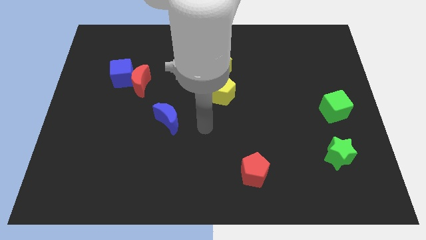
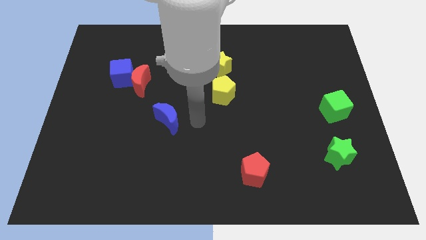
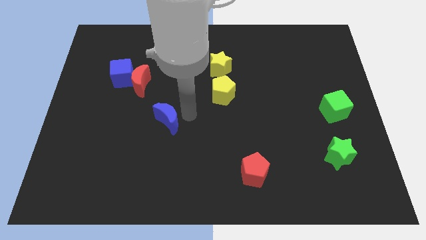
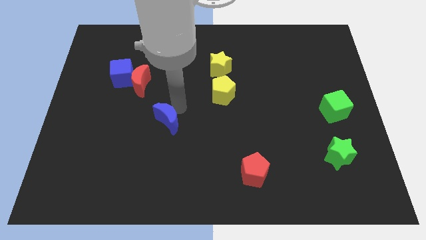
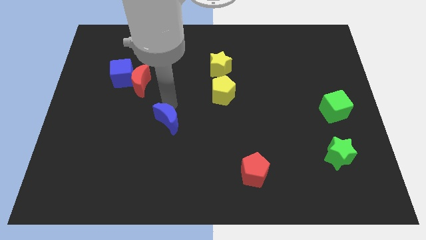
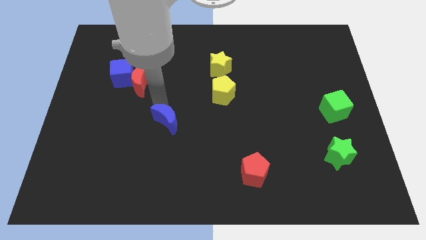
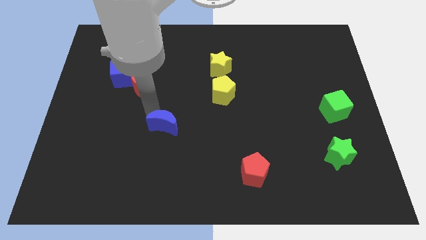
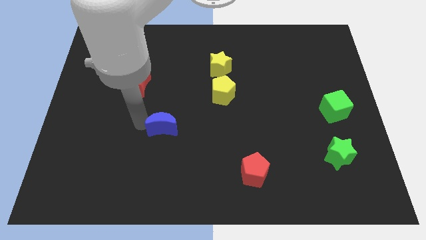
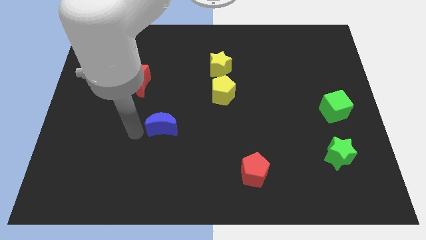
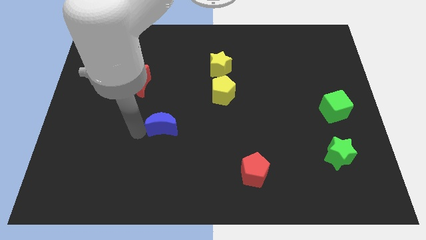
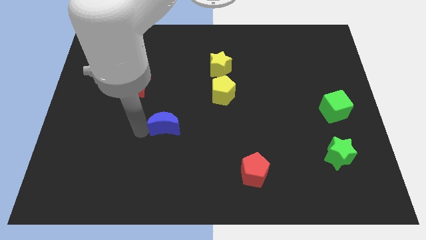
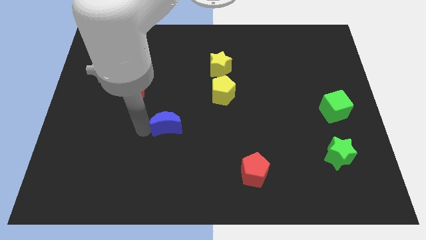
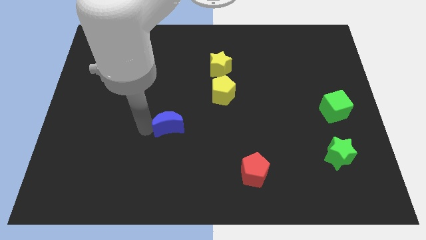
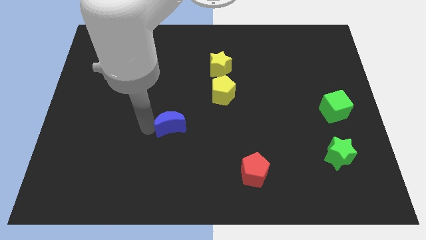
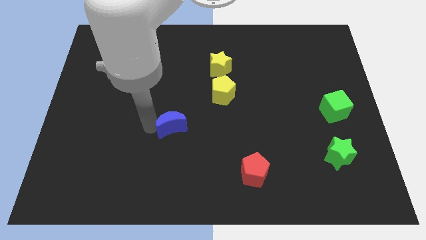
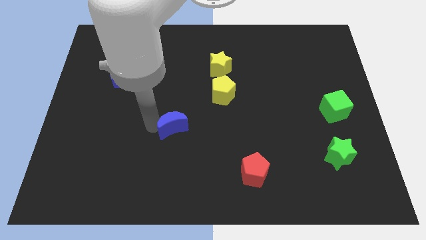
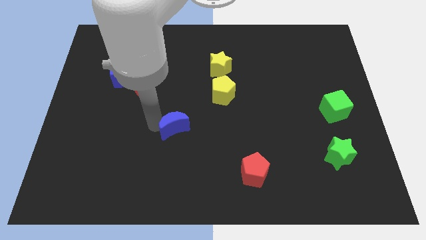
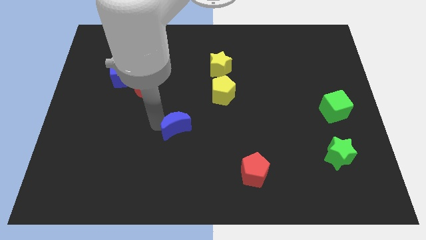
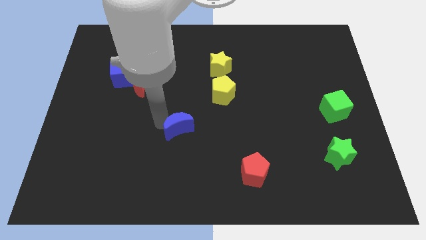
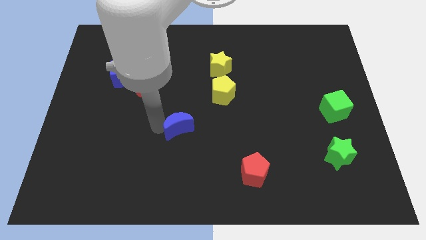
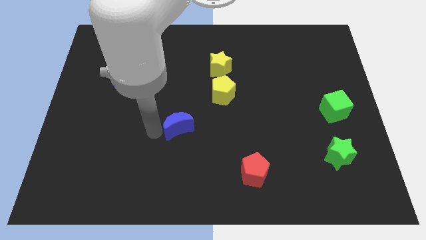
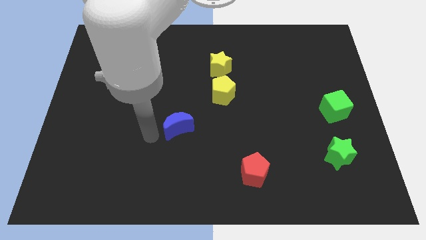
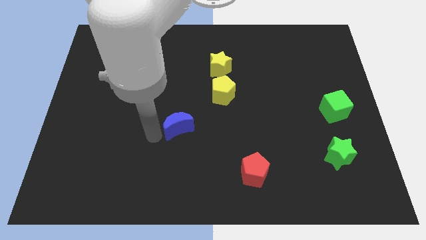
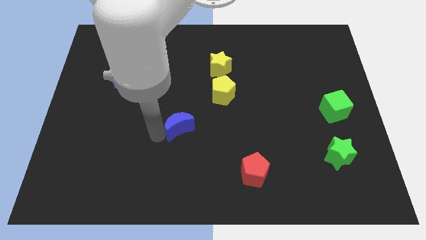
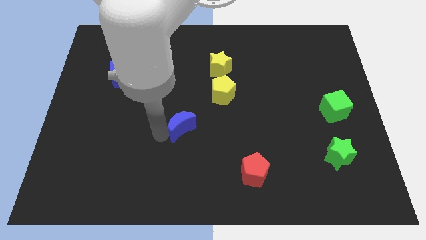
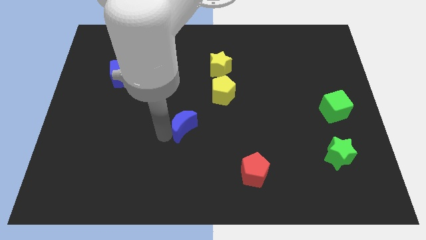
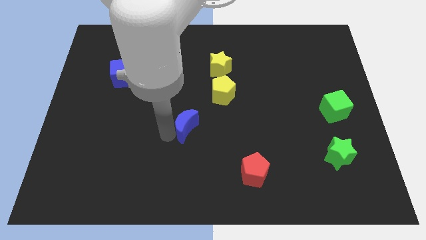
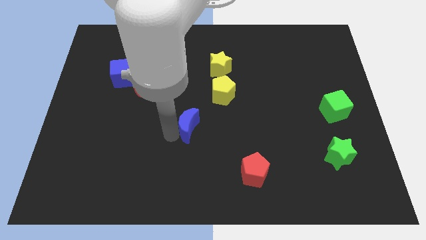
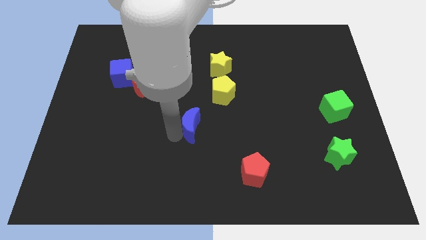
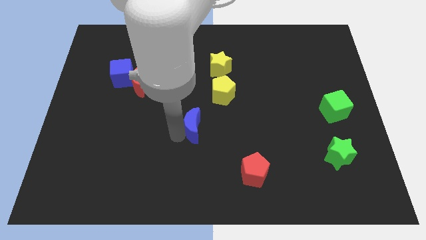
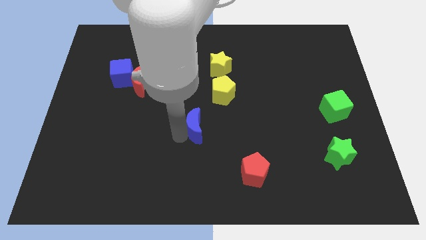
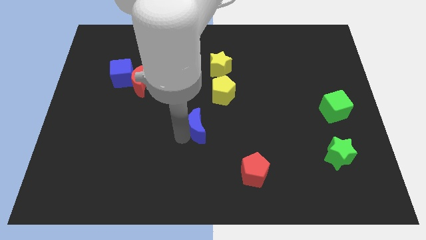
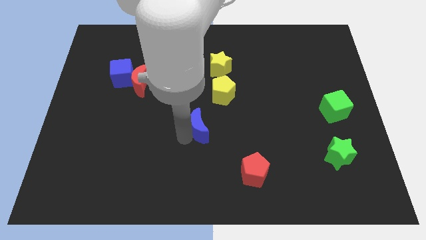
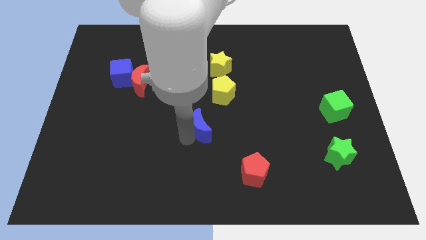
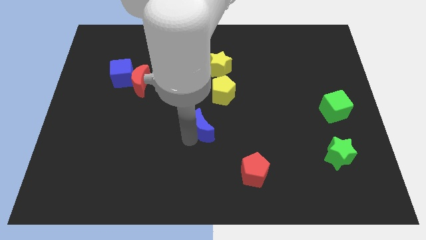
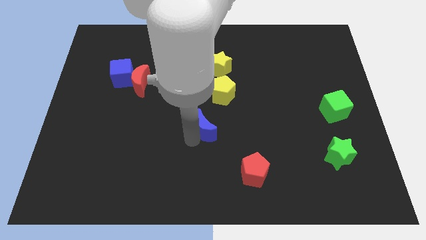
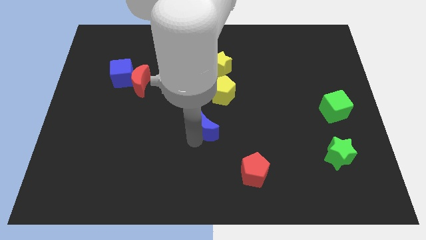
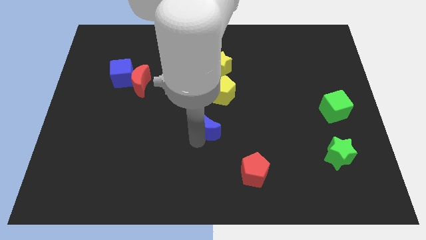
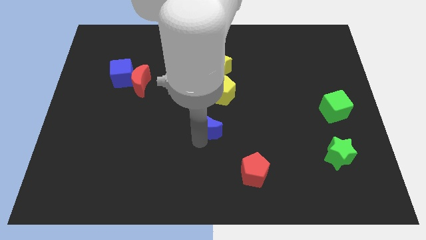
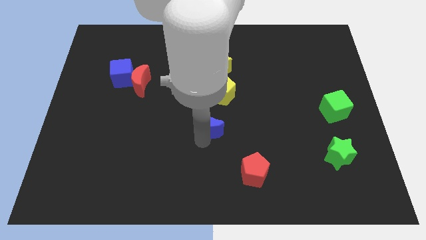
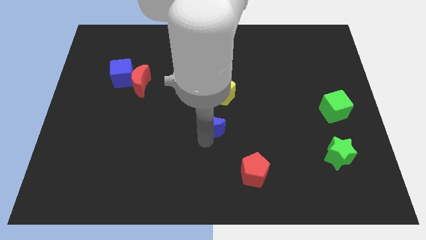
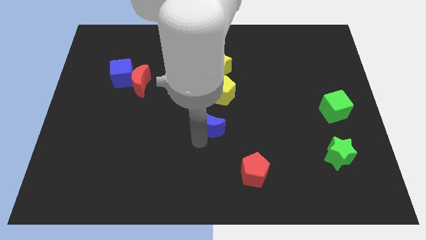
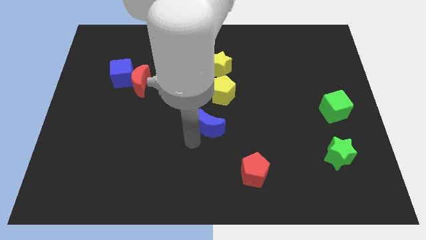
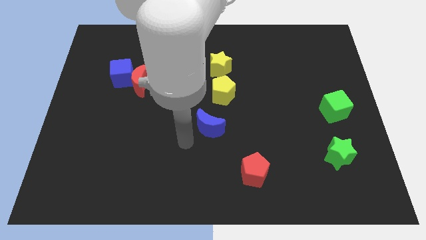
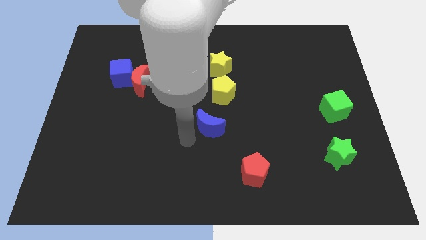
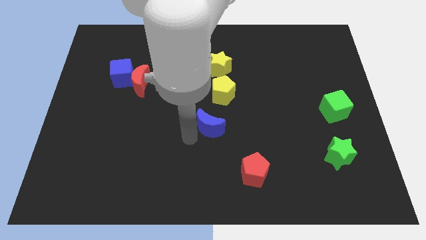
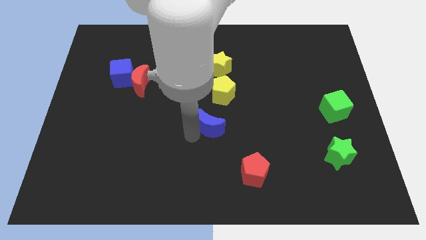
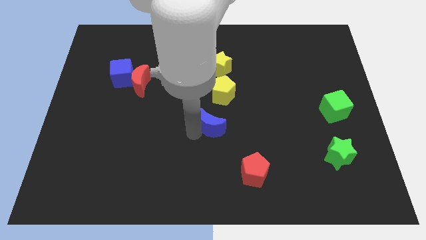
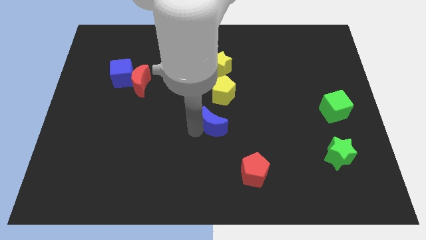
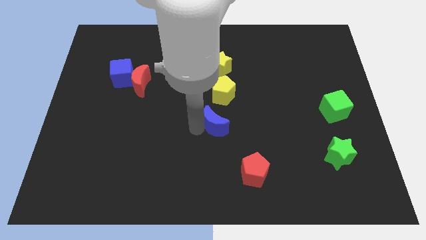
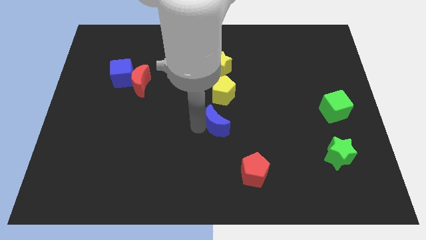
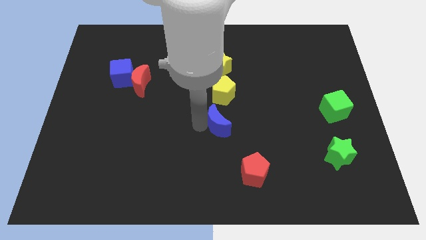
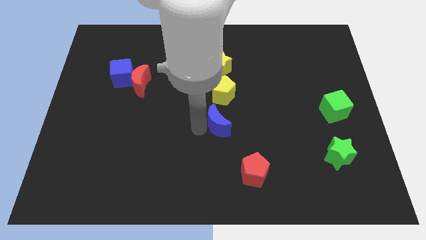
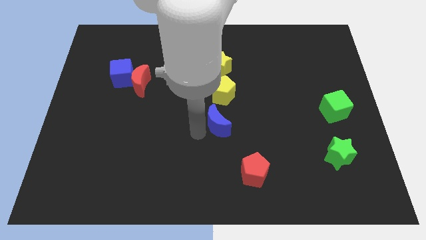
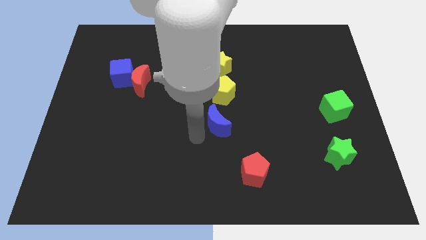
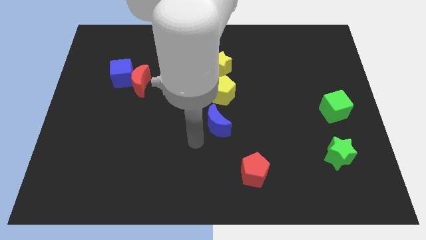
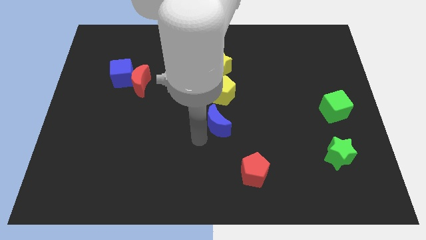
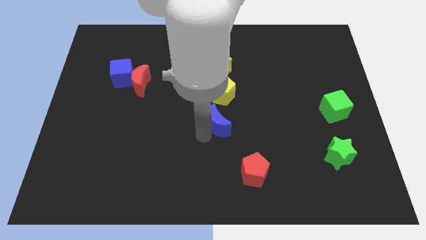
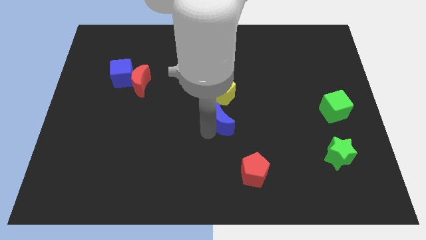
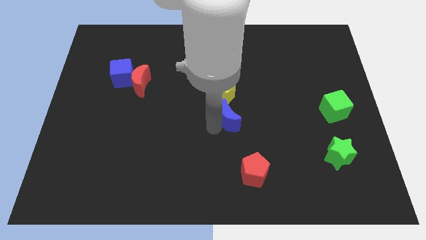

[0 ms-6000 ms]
slide the blue moon diagonally down and to the right of the yellow pentagon

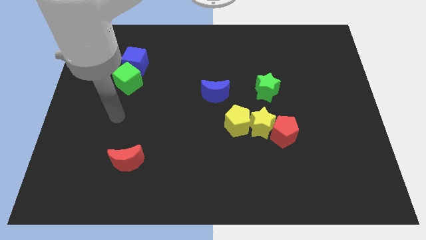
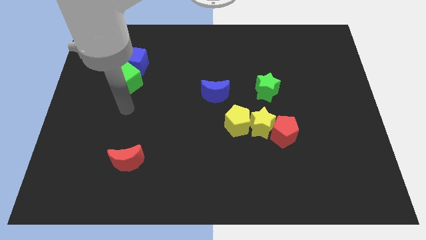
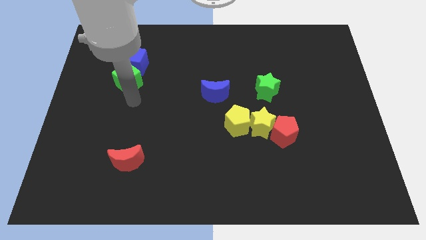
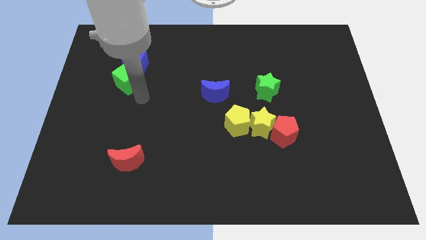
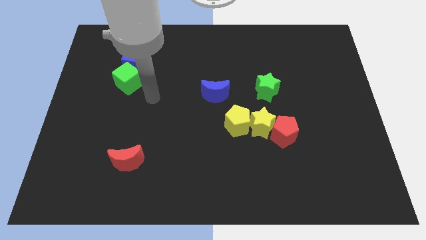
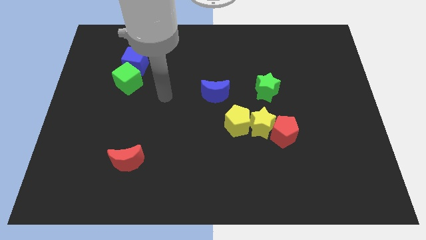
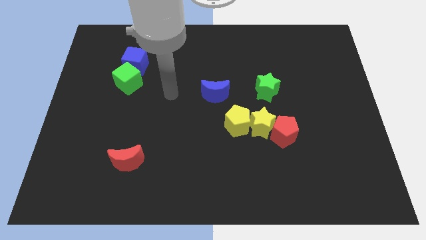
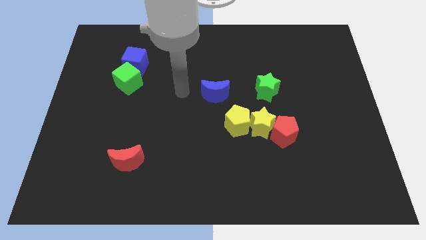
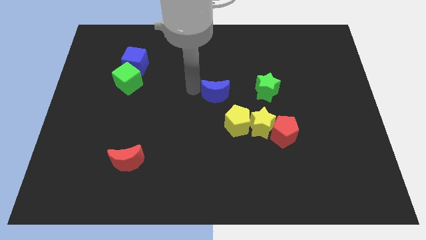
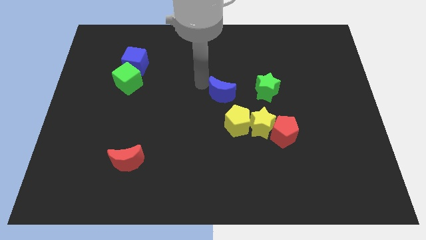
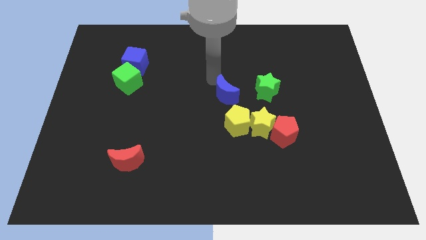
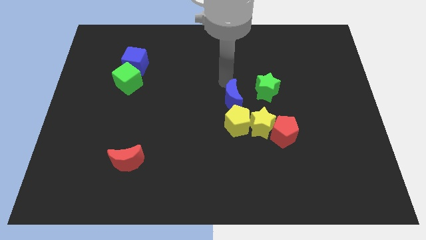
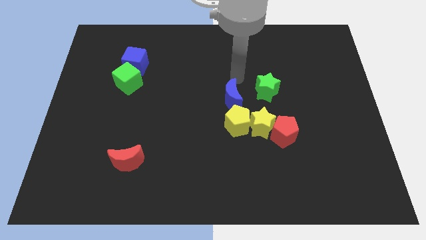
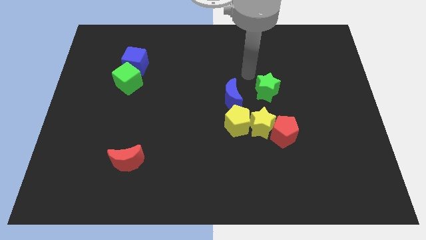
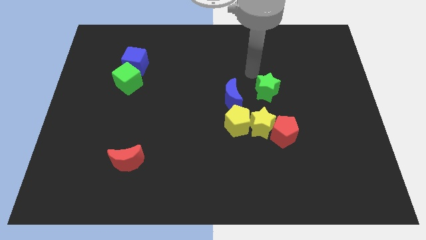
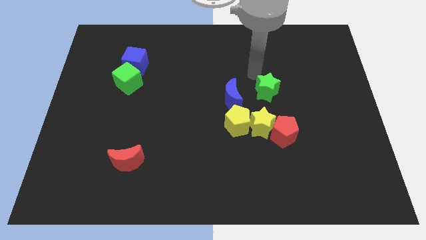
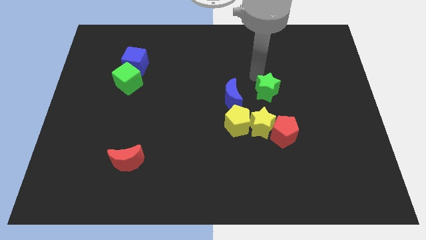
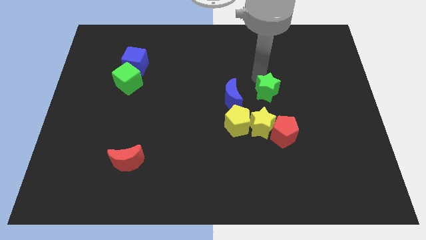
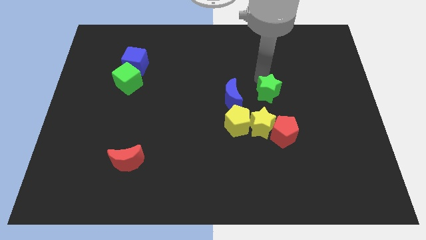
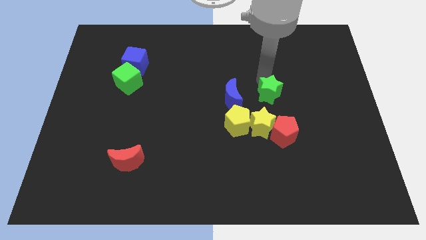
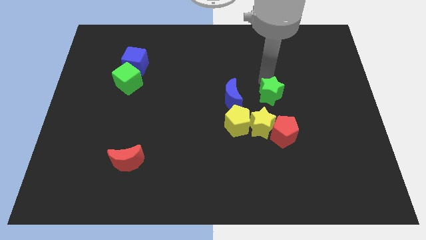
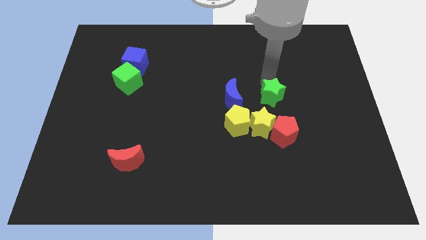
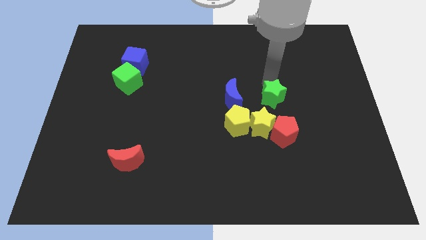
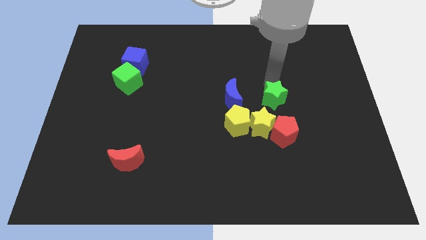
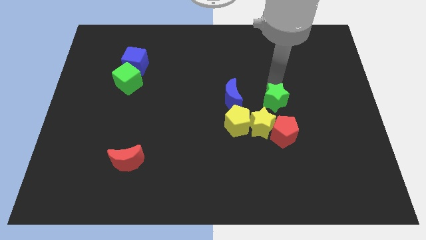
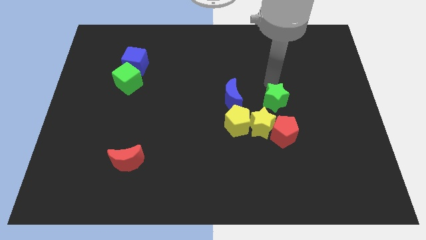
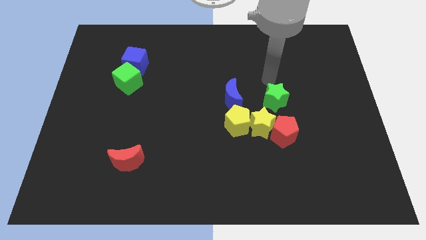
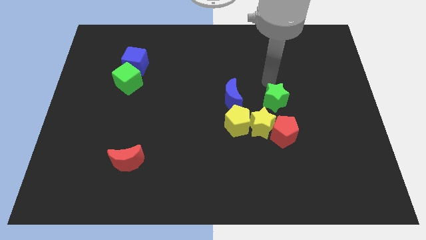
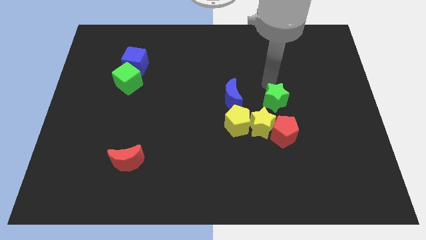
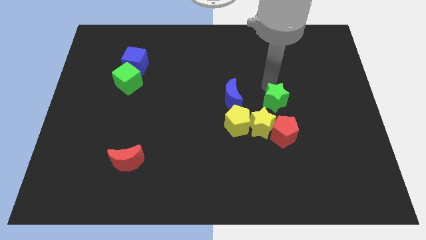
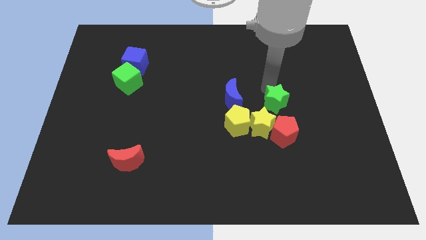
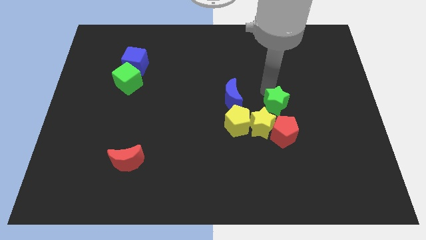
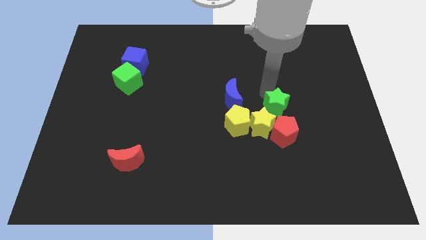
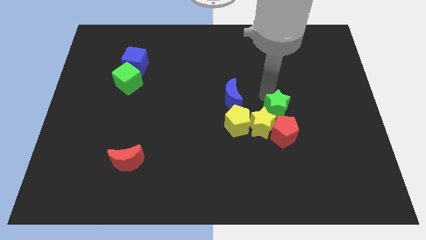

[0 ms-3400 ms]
move the green star to the right of the yellow pentagon
